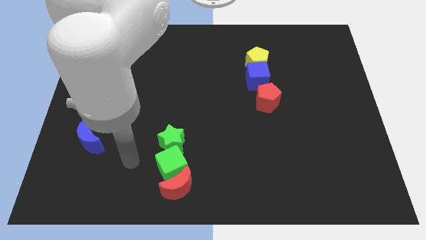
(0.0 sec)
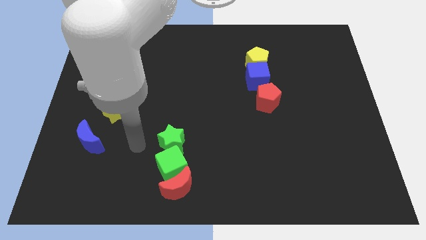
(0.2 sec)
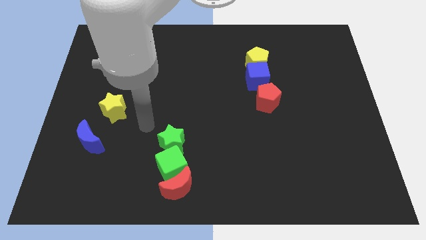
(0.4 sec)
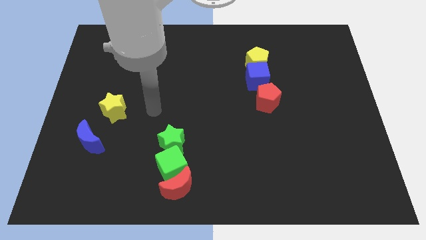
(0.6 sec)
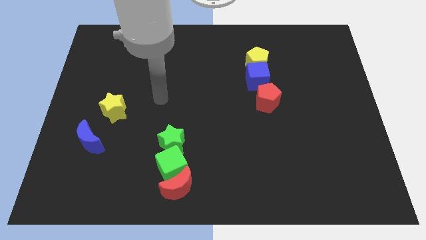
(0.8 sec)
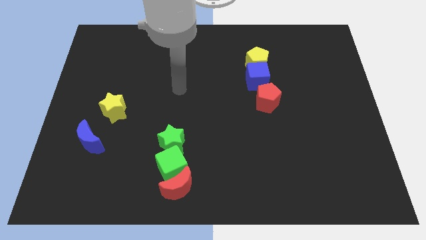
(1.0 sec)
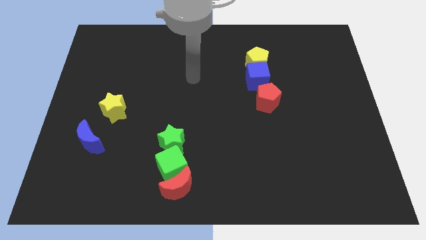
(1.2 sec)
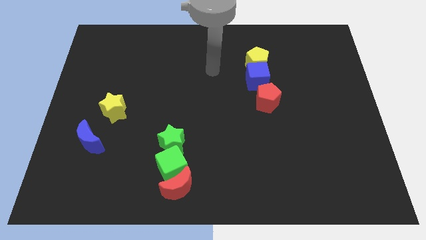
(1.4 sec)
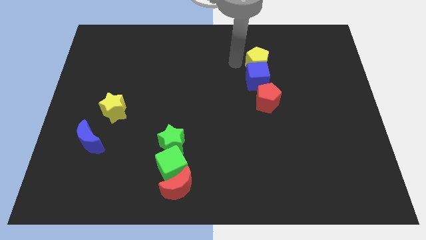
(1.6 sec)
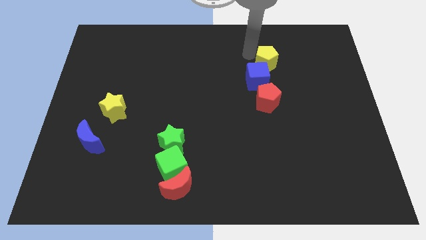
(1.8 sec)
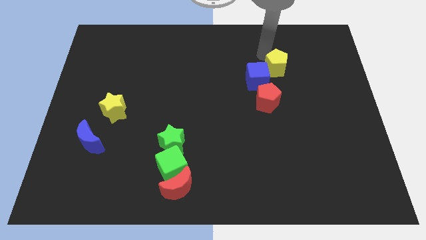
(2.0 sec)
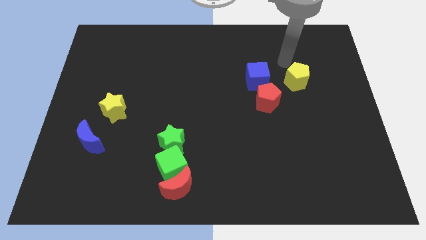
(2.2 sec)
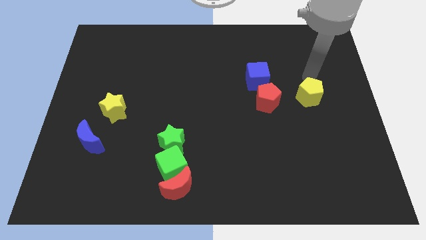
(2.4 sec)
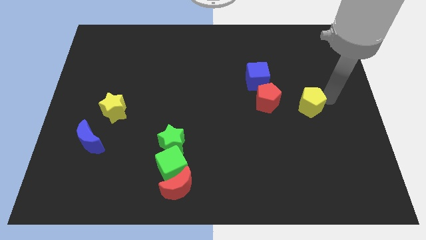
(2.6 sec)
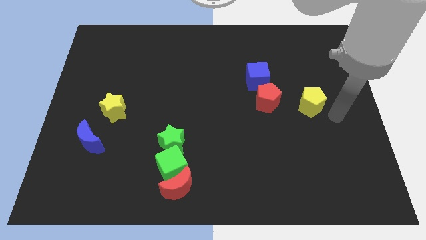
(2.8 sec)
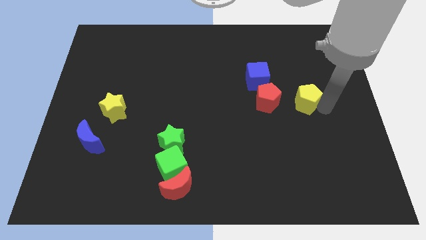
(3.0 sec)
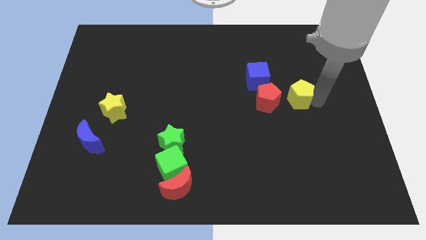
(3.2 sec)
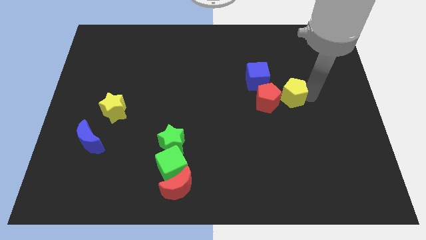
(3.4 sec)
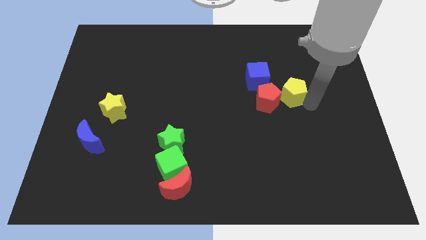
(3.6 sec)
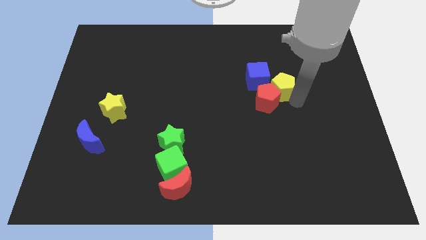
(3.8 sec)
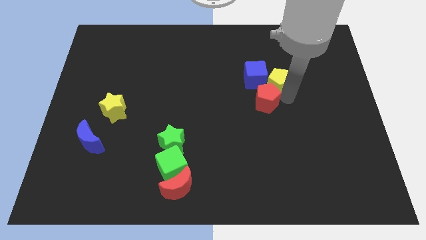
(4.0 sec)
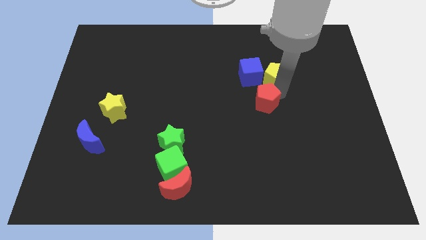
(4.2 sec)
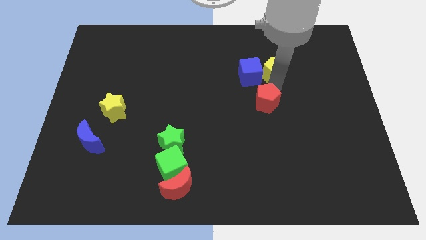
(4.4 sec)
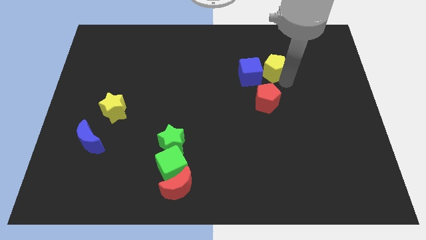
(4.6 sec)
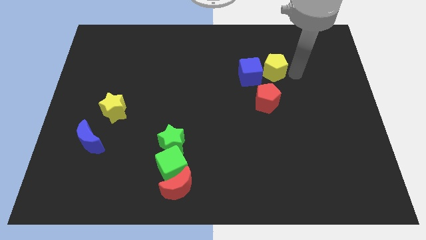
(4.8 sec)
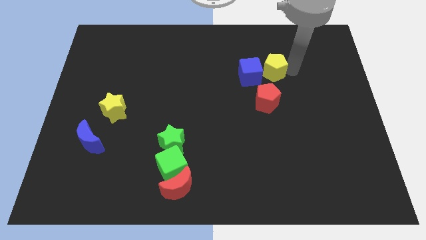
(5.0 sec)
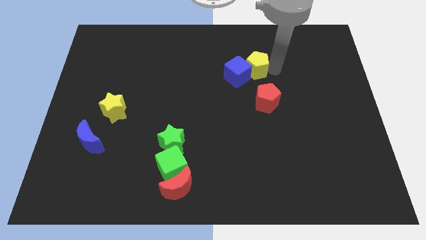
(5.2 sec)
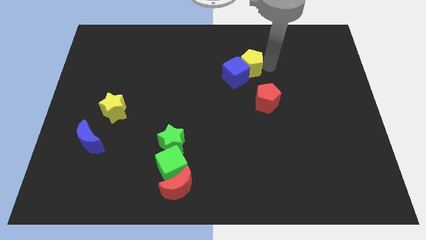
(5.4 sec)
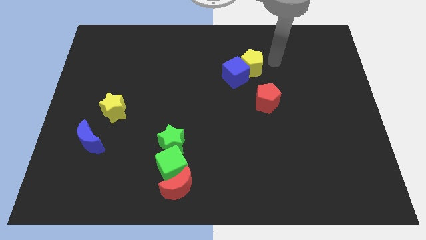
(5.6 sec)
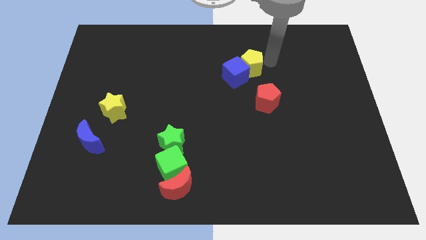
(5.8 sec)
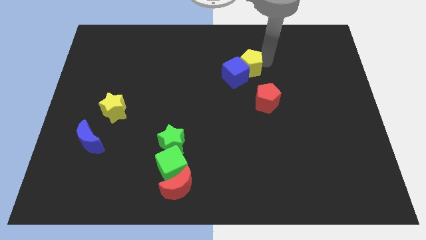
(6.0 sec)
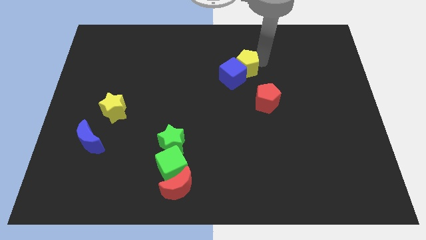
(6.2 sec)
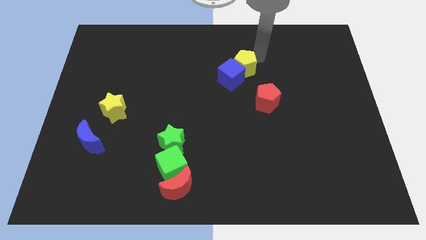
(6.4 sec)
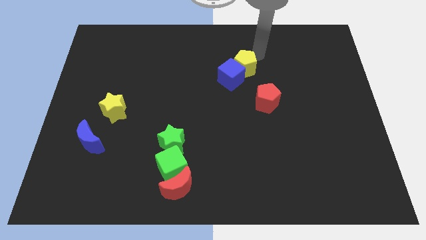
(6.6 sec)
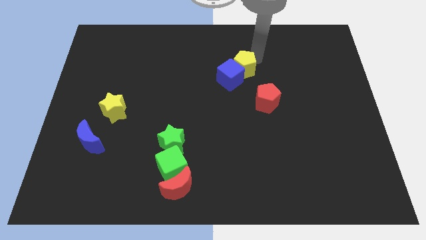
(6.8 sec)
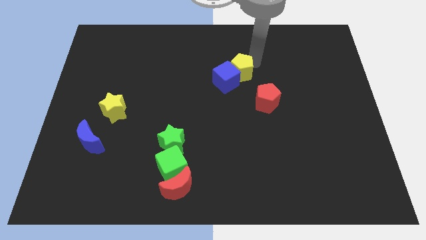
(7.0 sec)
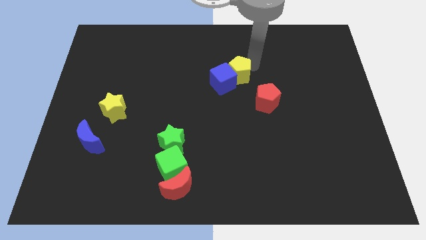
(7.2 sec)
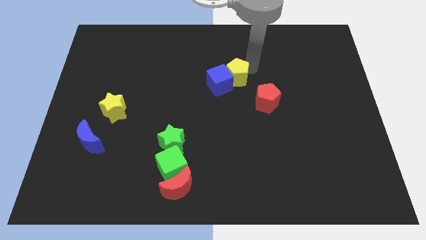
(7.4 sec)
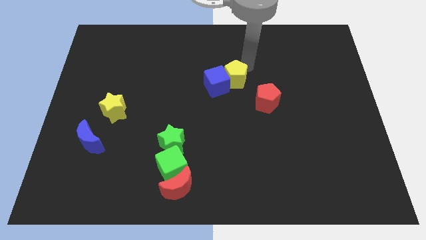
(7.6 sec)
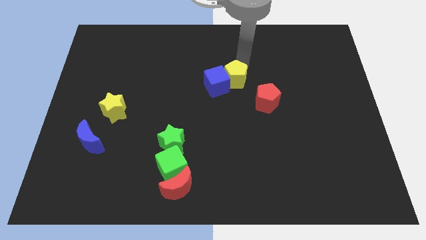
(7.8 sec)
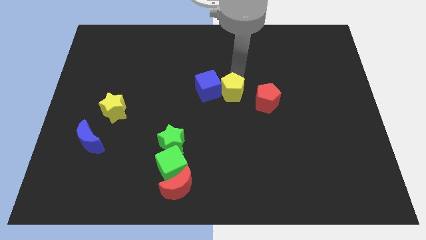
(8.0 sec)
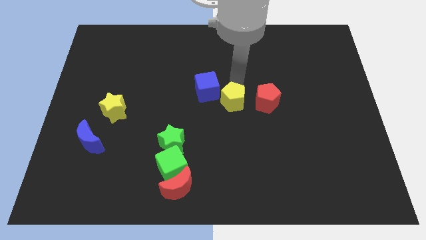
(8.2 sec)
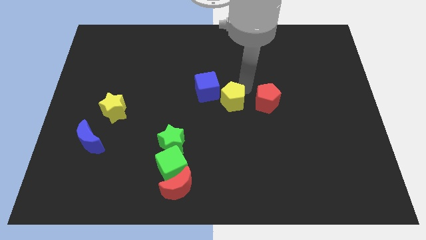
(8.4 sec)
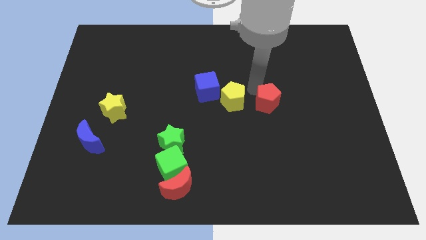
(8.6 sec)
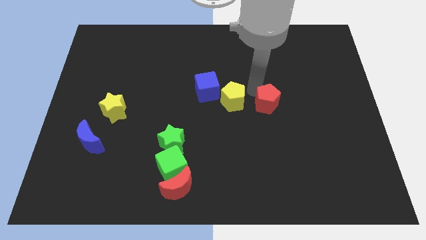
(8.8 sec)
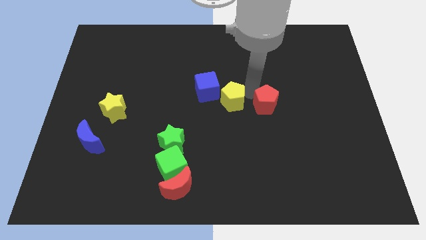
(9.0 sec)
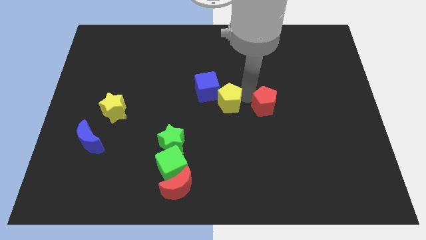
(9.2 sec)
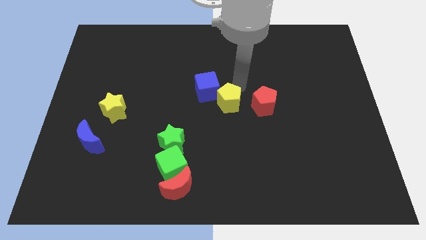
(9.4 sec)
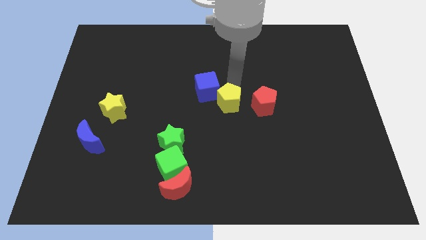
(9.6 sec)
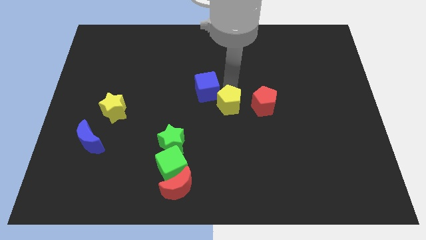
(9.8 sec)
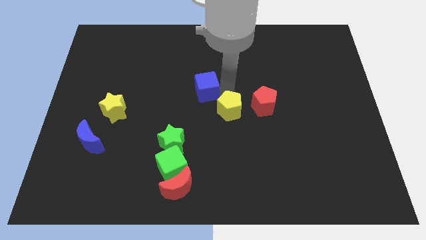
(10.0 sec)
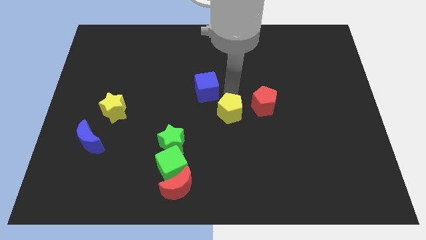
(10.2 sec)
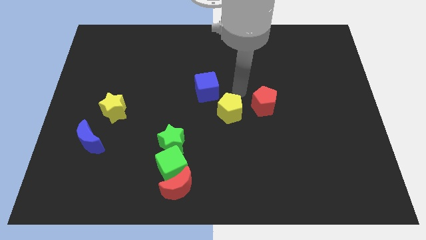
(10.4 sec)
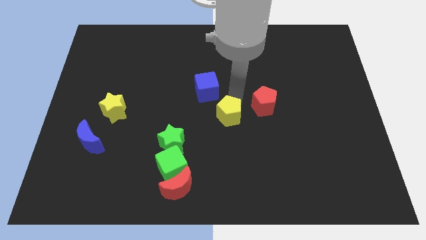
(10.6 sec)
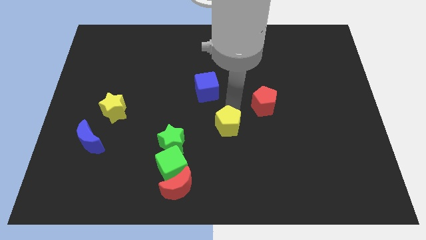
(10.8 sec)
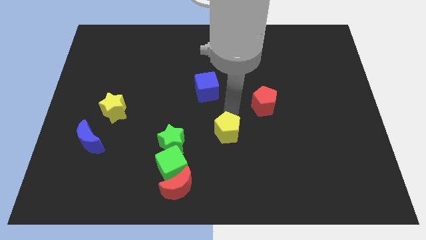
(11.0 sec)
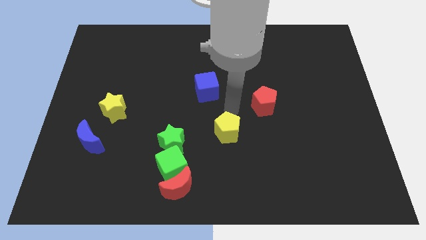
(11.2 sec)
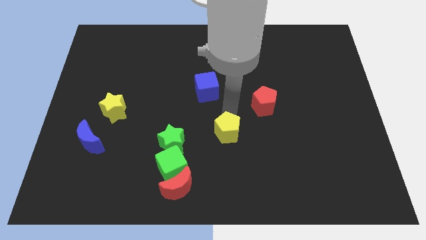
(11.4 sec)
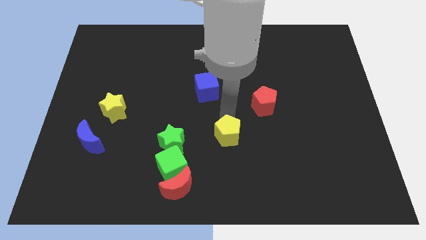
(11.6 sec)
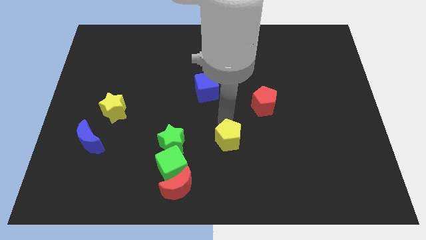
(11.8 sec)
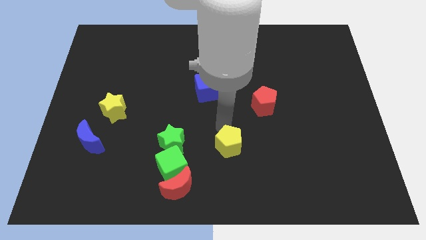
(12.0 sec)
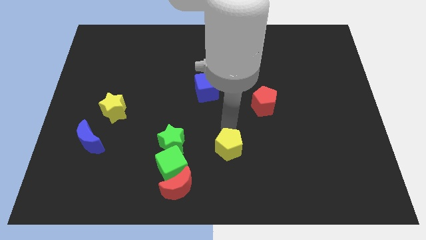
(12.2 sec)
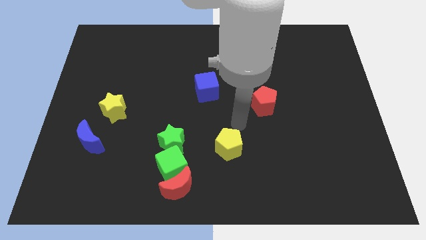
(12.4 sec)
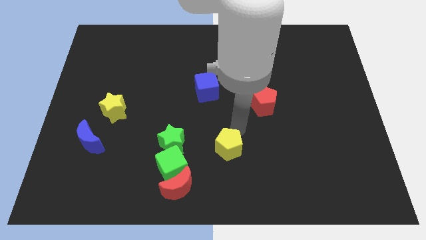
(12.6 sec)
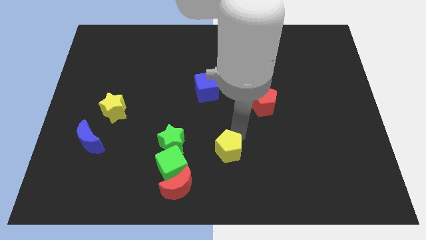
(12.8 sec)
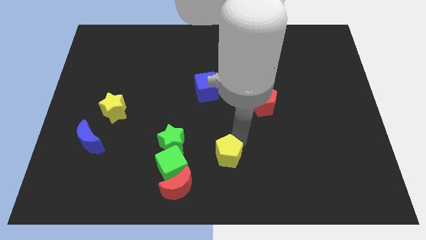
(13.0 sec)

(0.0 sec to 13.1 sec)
put the yellow pentagon to the bottom side

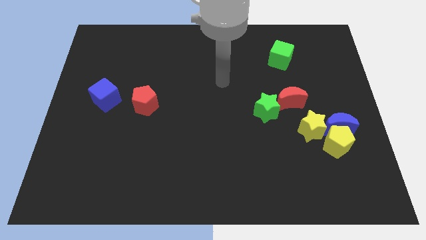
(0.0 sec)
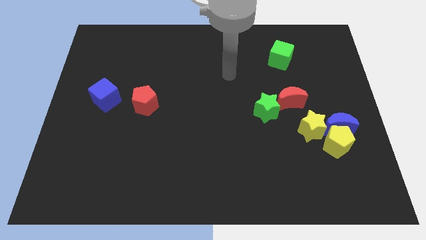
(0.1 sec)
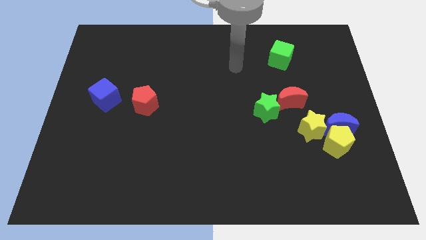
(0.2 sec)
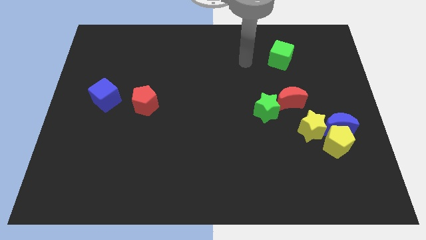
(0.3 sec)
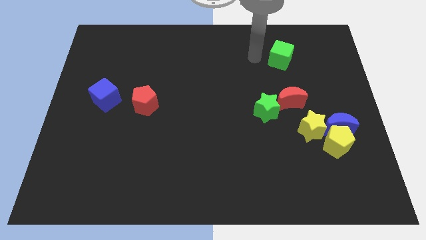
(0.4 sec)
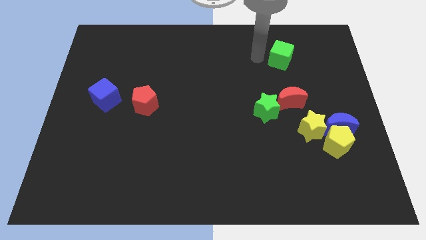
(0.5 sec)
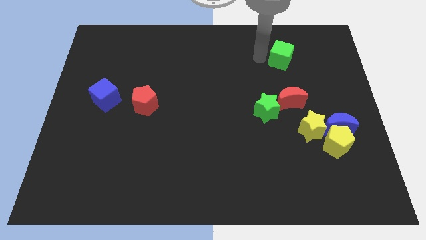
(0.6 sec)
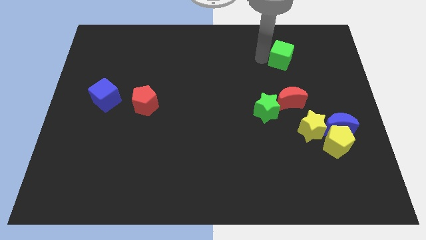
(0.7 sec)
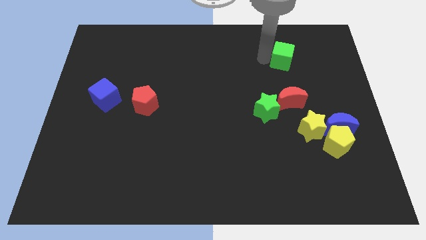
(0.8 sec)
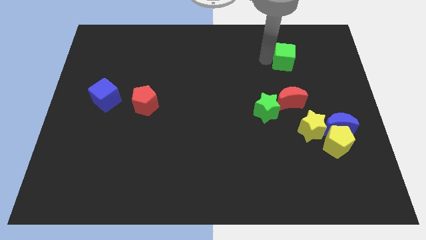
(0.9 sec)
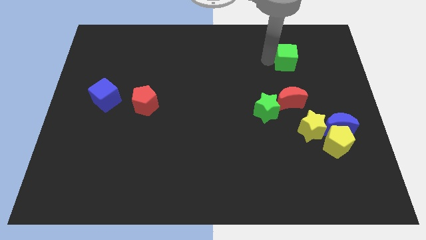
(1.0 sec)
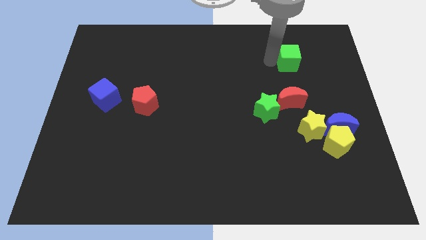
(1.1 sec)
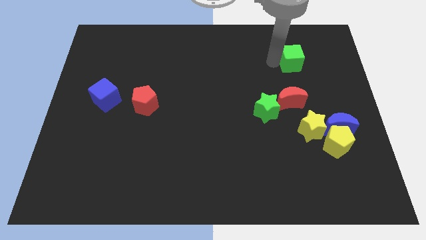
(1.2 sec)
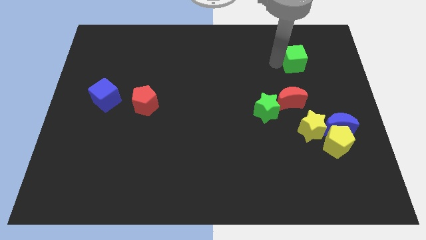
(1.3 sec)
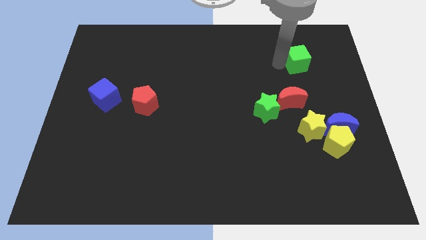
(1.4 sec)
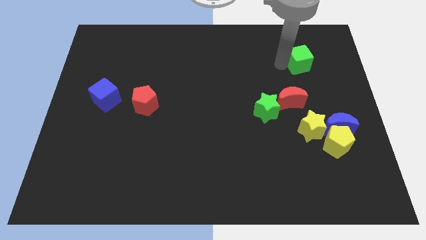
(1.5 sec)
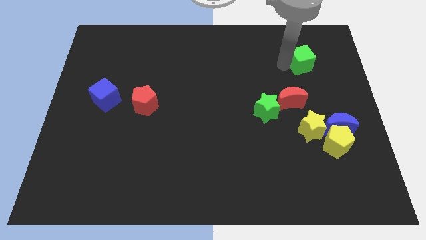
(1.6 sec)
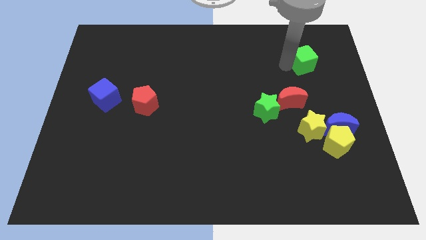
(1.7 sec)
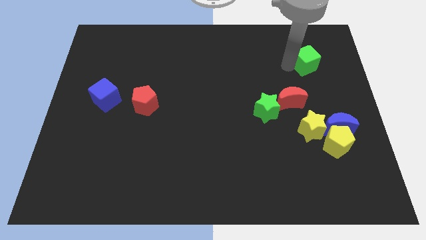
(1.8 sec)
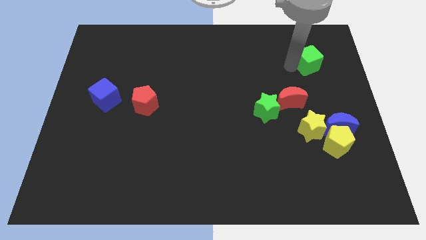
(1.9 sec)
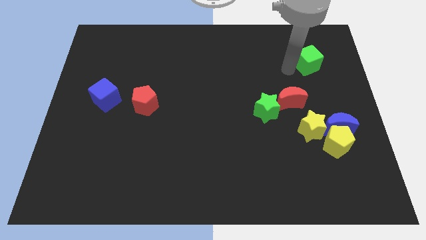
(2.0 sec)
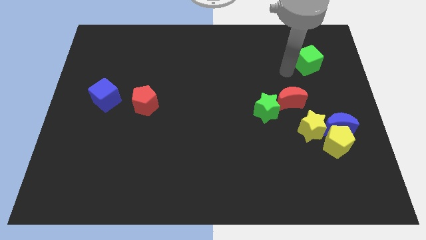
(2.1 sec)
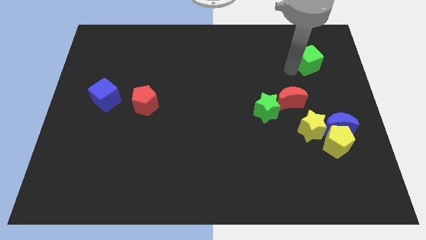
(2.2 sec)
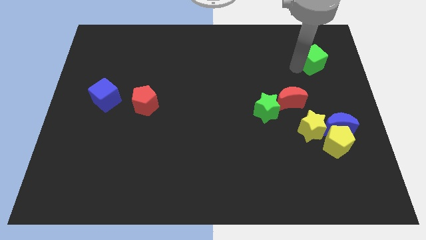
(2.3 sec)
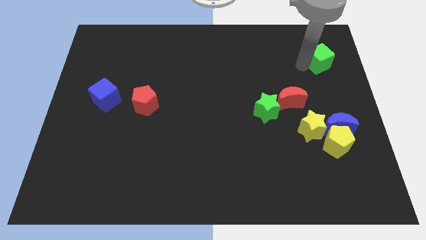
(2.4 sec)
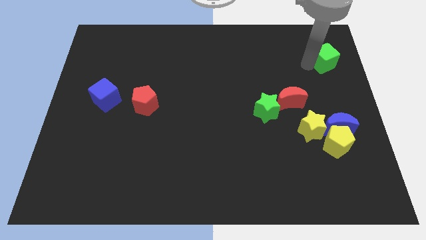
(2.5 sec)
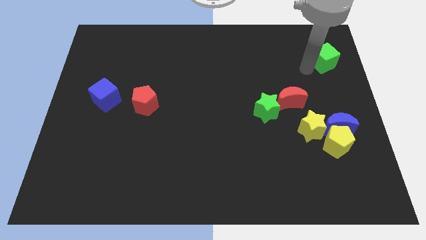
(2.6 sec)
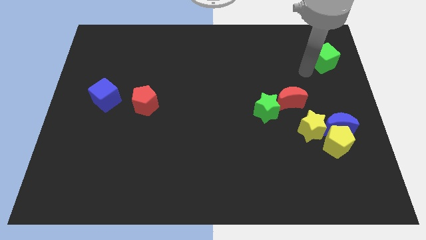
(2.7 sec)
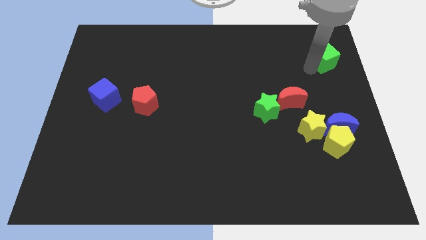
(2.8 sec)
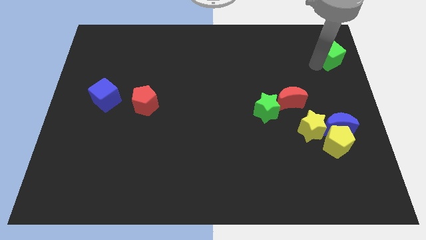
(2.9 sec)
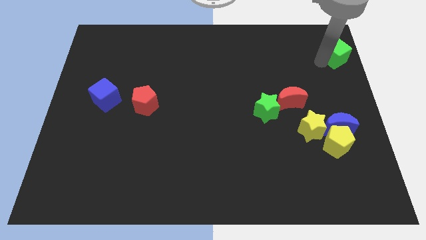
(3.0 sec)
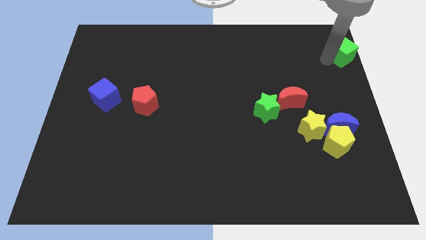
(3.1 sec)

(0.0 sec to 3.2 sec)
move the green cube to the top right corner
